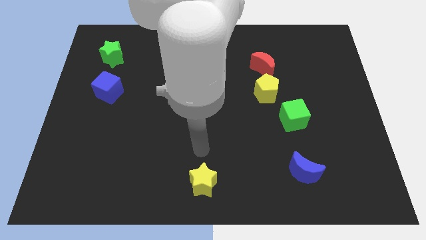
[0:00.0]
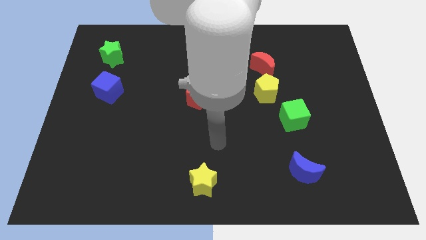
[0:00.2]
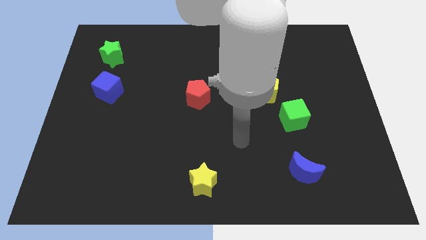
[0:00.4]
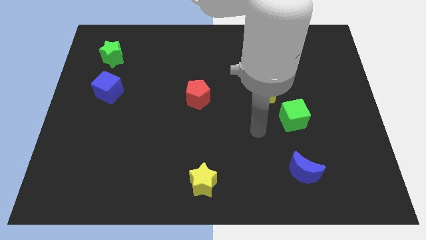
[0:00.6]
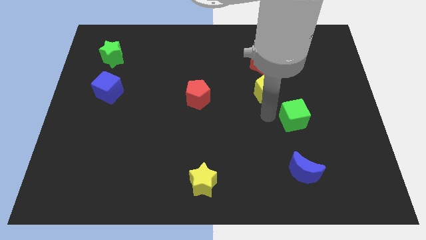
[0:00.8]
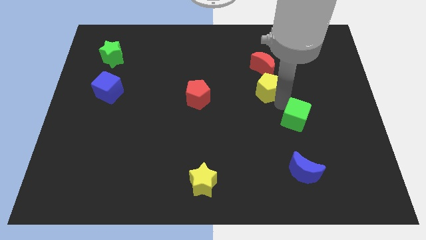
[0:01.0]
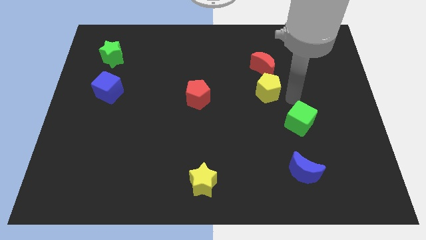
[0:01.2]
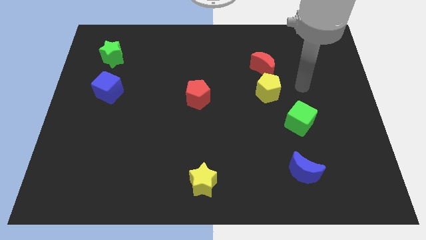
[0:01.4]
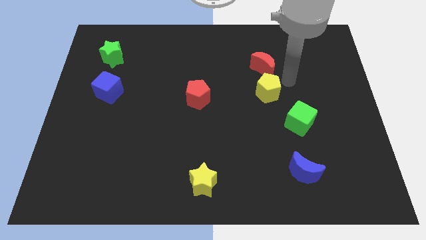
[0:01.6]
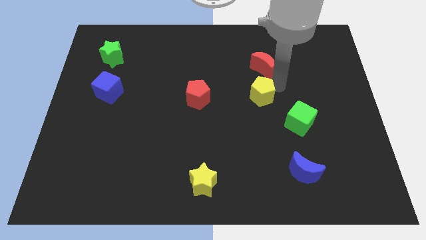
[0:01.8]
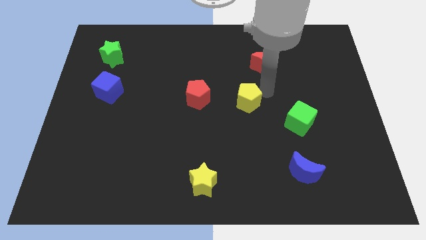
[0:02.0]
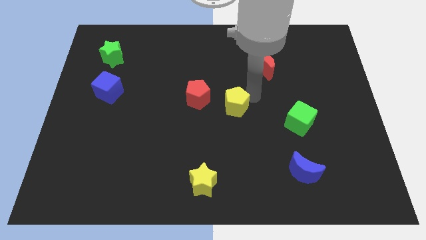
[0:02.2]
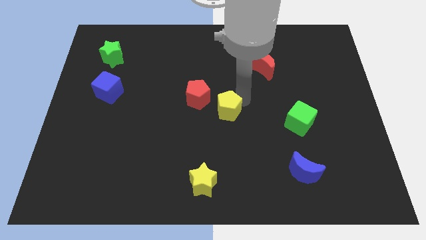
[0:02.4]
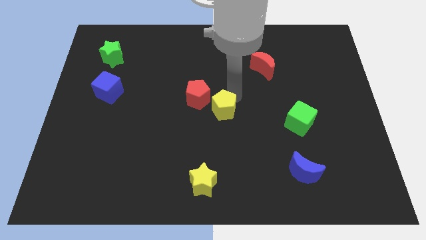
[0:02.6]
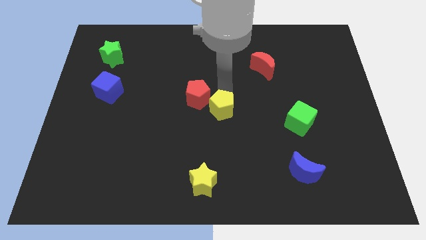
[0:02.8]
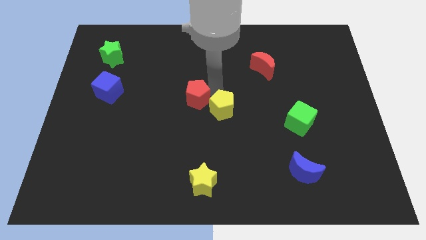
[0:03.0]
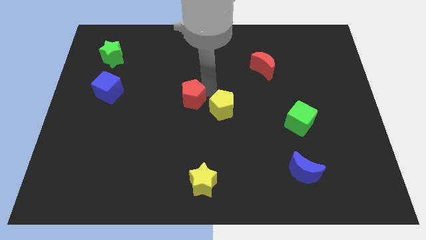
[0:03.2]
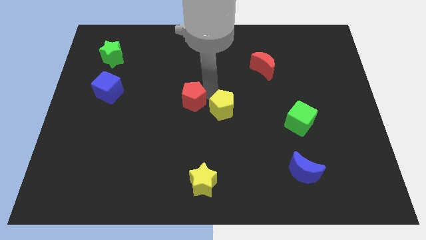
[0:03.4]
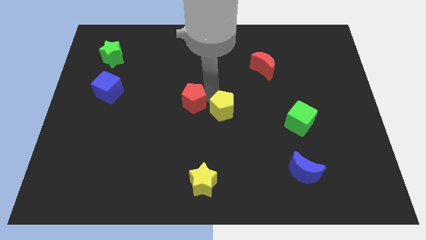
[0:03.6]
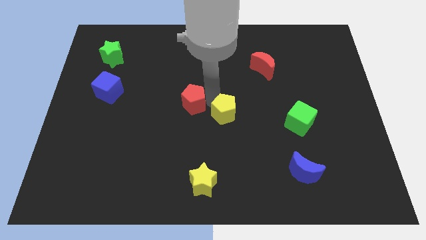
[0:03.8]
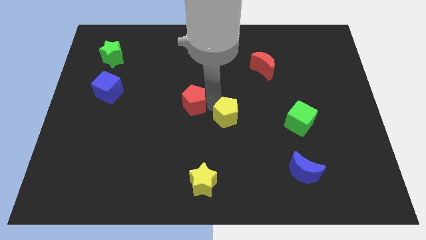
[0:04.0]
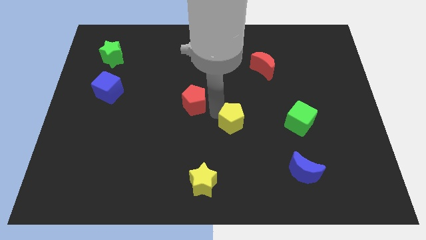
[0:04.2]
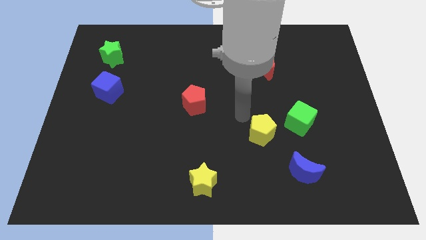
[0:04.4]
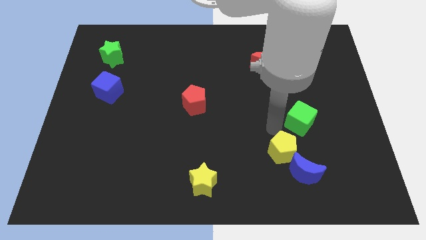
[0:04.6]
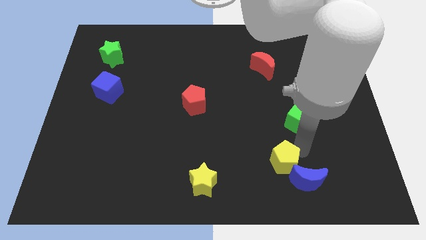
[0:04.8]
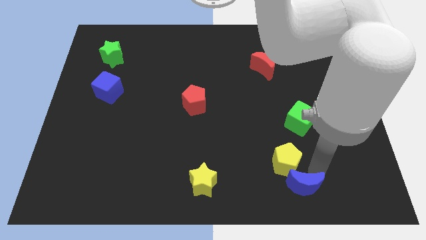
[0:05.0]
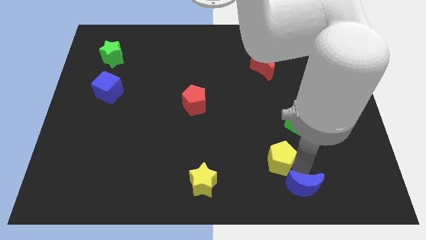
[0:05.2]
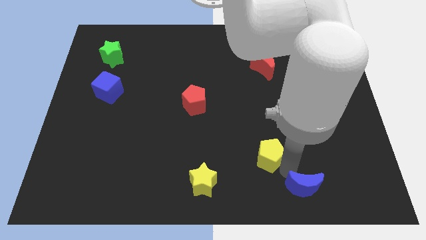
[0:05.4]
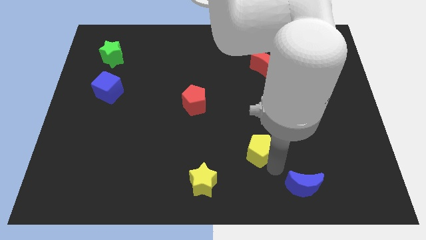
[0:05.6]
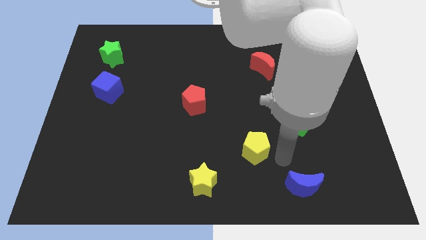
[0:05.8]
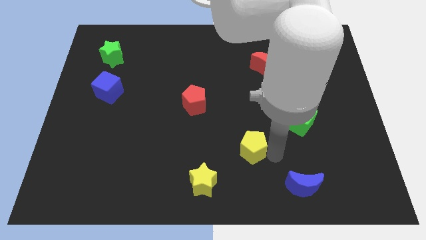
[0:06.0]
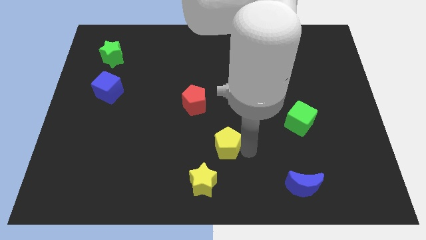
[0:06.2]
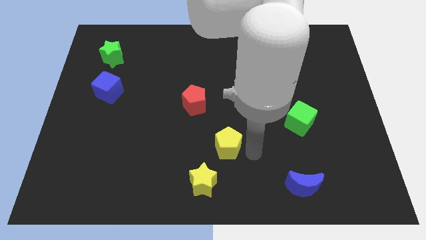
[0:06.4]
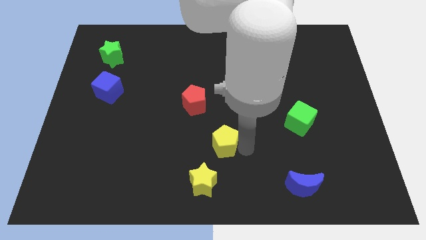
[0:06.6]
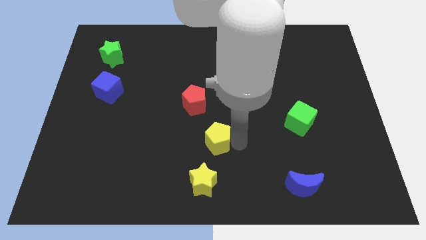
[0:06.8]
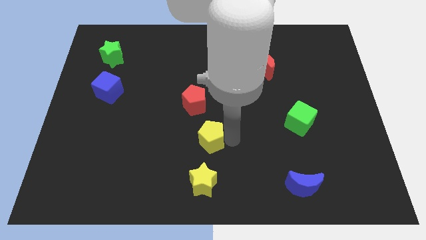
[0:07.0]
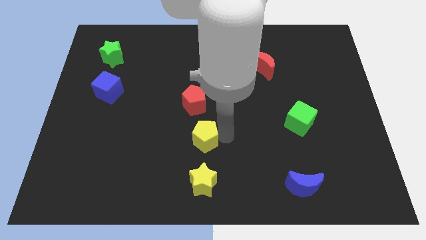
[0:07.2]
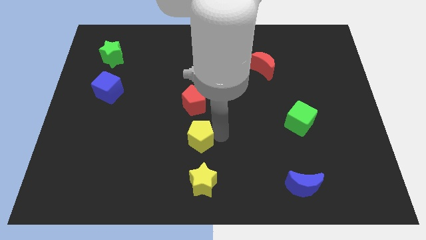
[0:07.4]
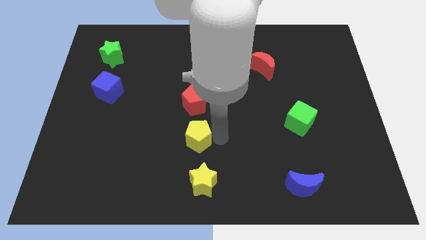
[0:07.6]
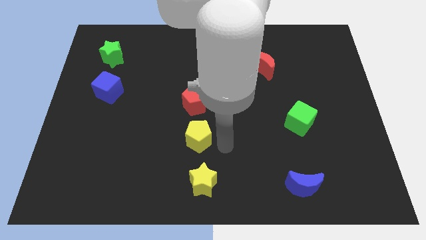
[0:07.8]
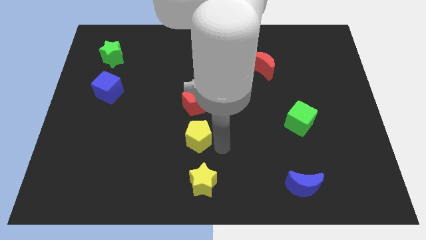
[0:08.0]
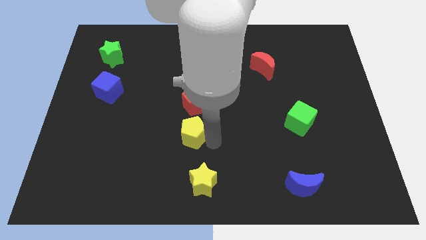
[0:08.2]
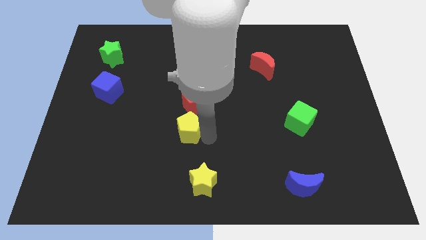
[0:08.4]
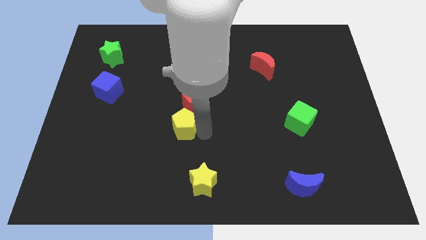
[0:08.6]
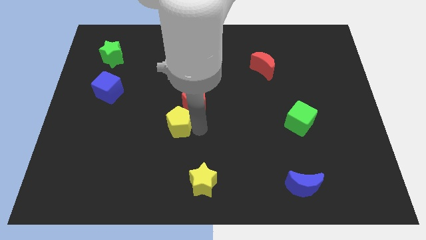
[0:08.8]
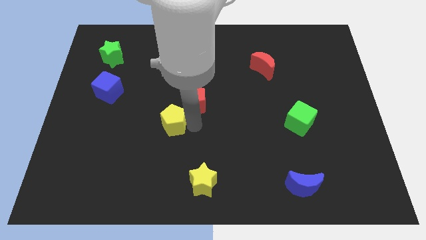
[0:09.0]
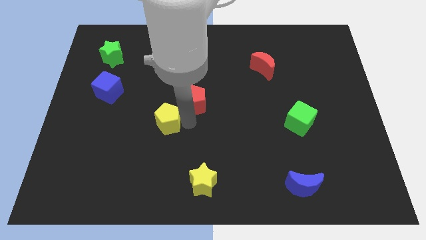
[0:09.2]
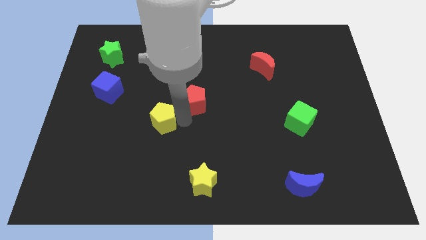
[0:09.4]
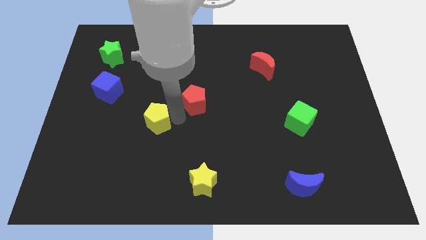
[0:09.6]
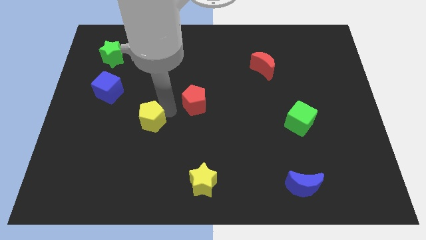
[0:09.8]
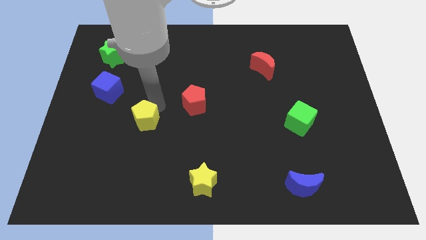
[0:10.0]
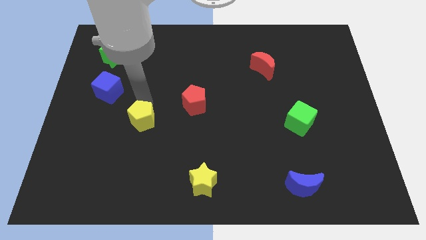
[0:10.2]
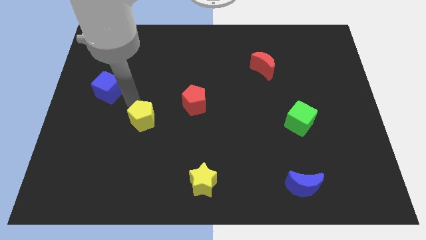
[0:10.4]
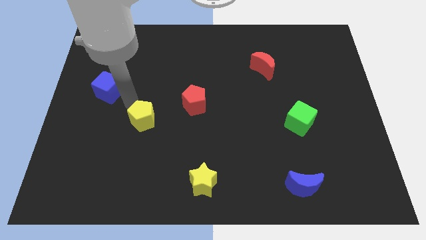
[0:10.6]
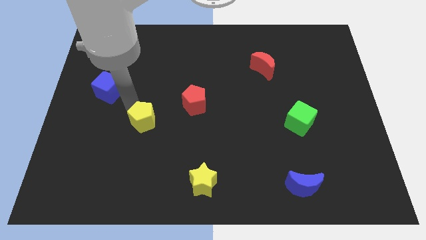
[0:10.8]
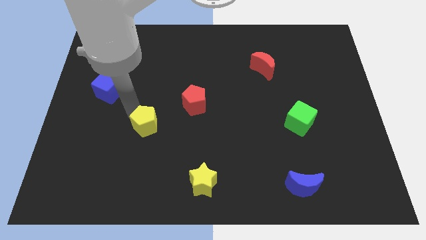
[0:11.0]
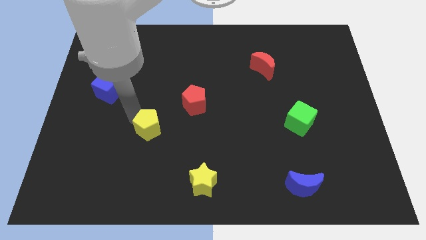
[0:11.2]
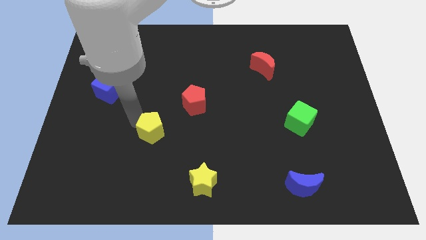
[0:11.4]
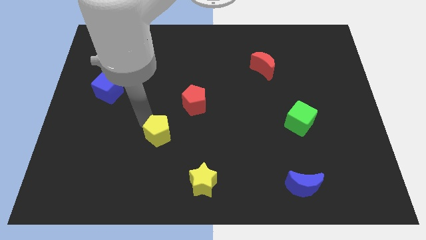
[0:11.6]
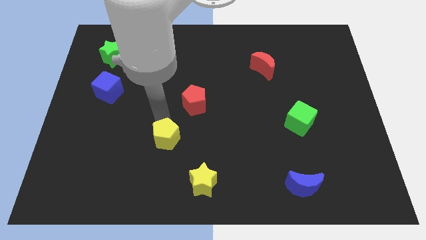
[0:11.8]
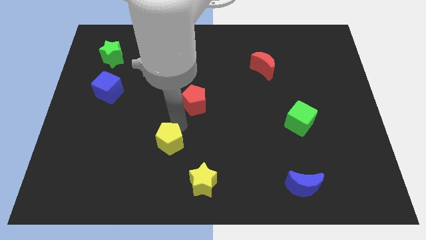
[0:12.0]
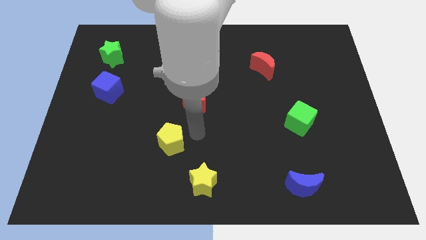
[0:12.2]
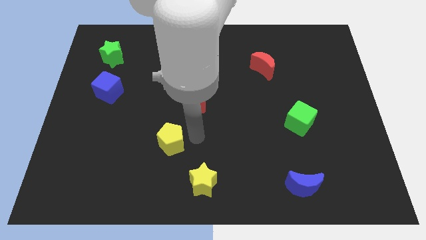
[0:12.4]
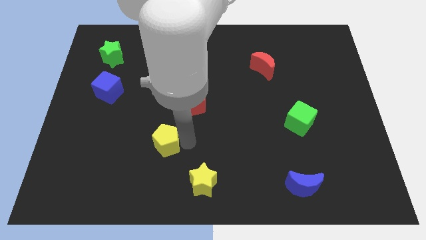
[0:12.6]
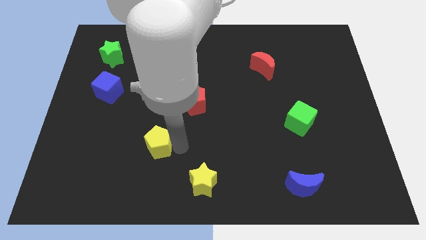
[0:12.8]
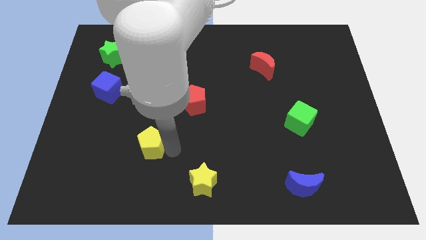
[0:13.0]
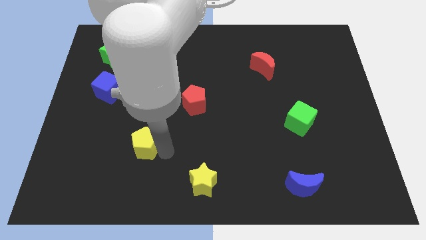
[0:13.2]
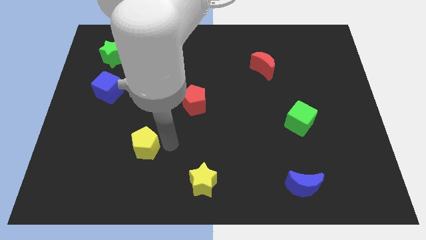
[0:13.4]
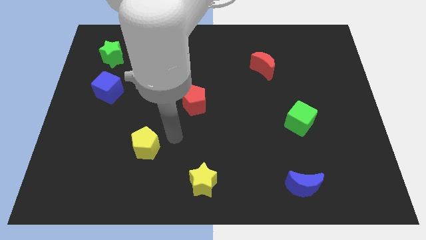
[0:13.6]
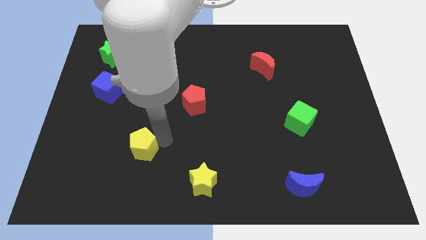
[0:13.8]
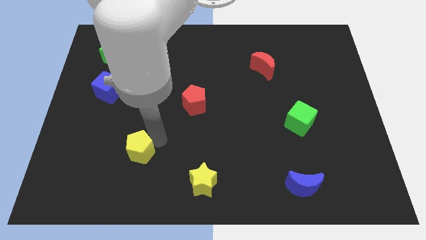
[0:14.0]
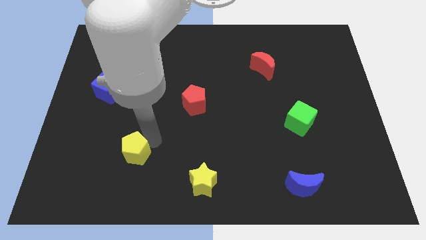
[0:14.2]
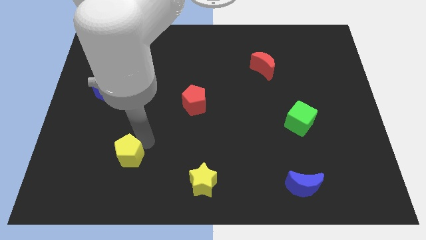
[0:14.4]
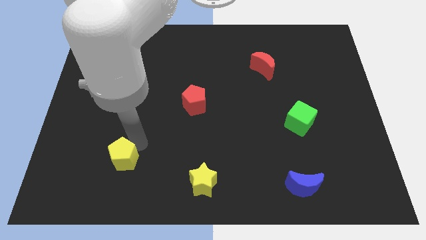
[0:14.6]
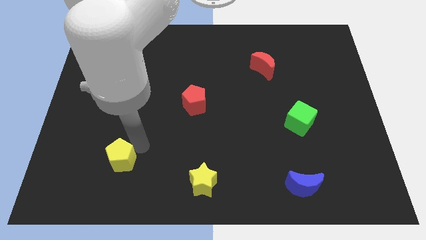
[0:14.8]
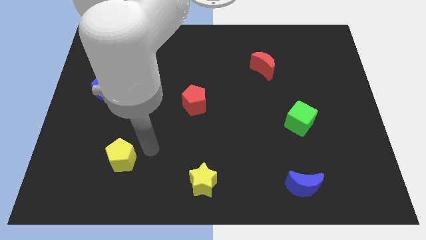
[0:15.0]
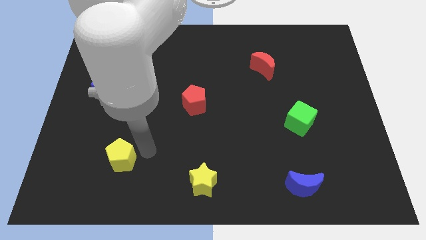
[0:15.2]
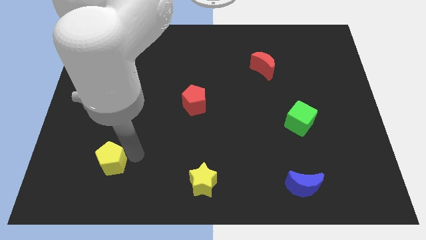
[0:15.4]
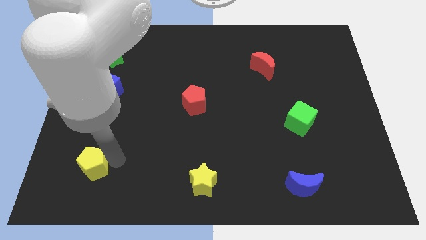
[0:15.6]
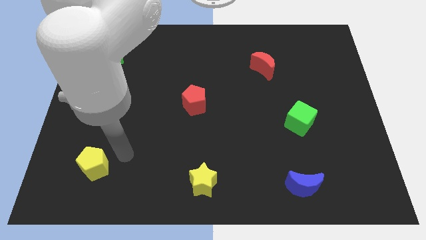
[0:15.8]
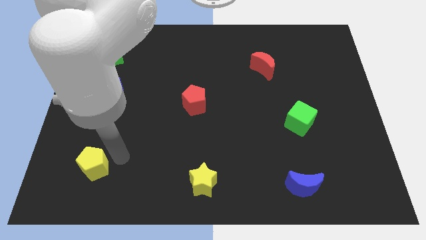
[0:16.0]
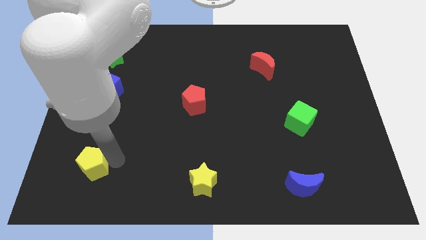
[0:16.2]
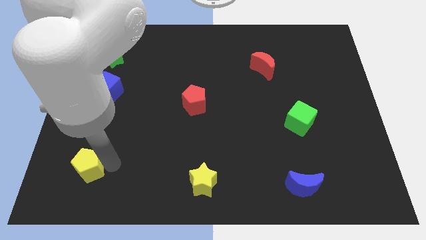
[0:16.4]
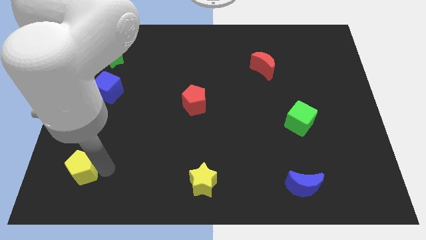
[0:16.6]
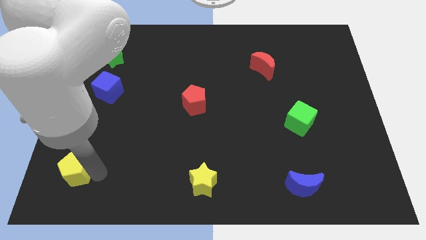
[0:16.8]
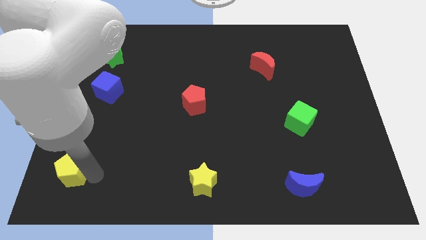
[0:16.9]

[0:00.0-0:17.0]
move the yellow pentagon to the lower left corner
